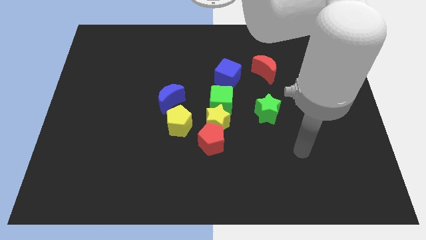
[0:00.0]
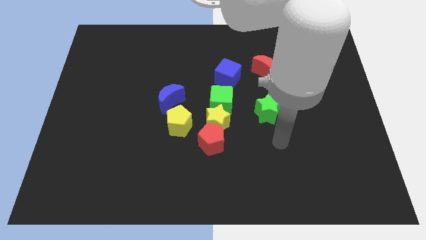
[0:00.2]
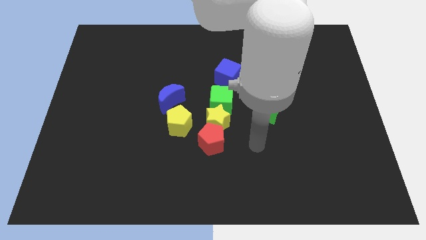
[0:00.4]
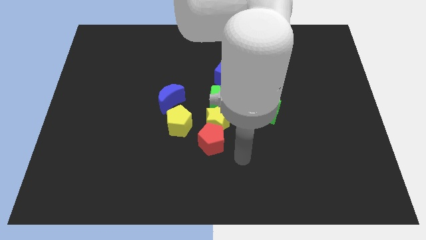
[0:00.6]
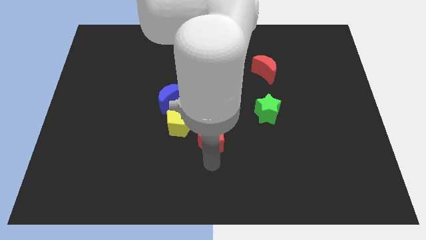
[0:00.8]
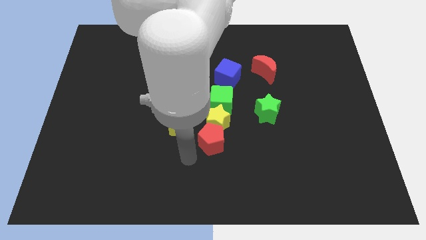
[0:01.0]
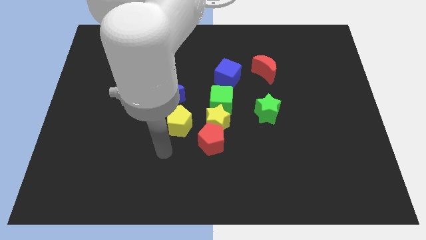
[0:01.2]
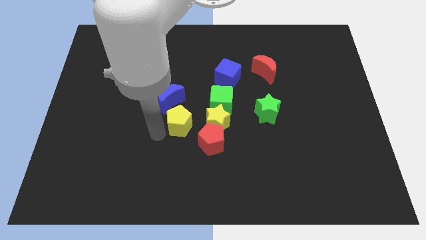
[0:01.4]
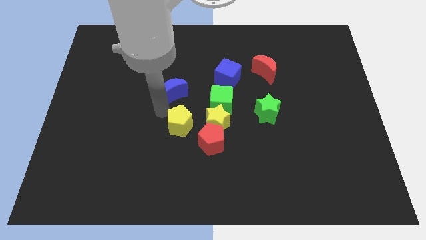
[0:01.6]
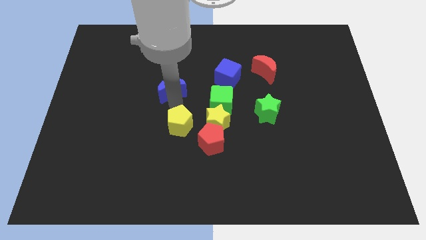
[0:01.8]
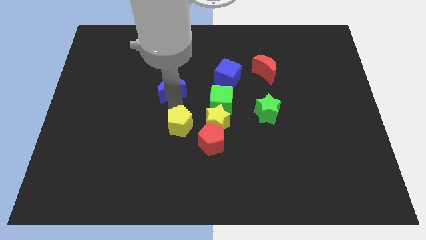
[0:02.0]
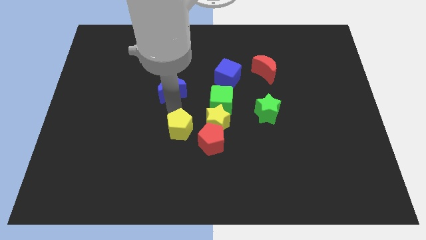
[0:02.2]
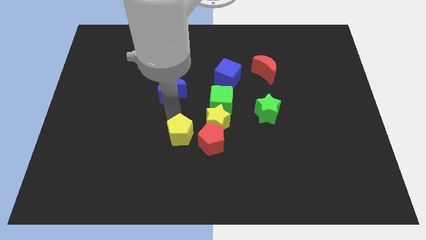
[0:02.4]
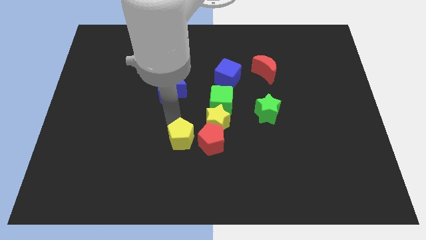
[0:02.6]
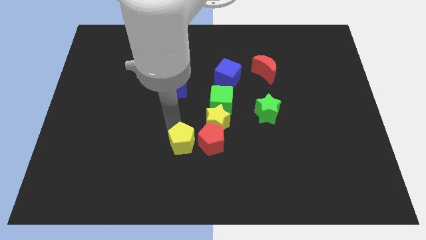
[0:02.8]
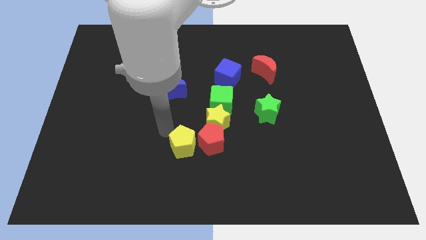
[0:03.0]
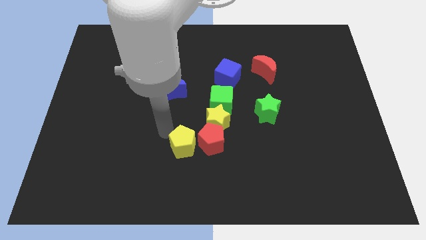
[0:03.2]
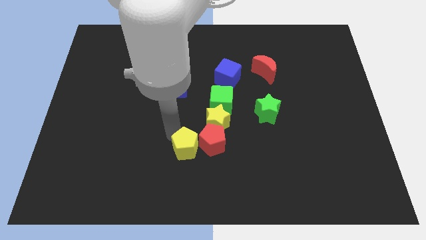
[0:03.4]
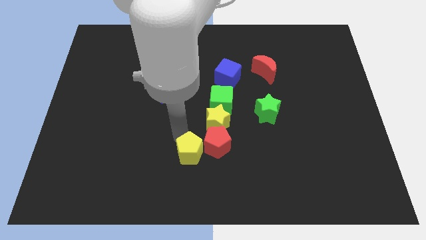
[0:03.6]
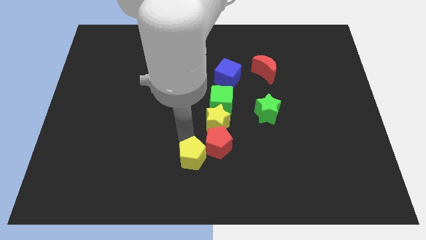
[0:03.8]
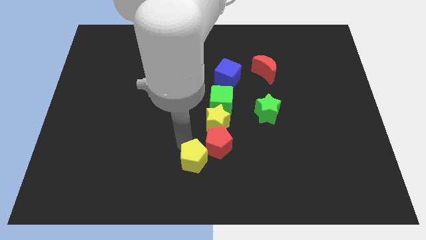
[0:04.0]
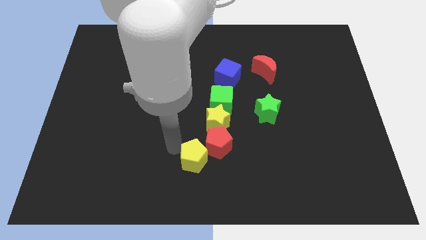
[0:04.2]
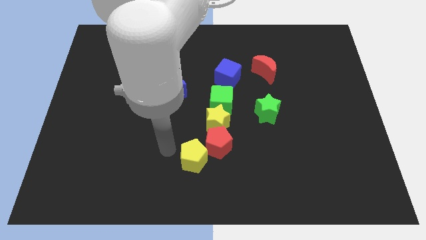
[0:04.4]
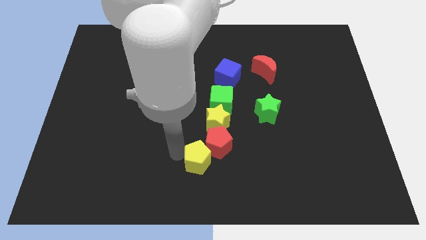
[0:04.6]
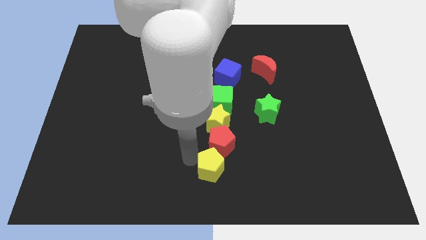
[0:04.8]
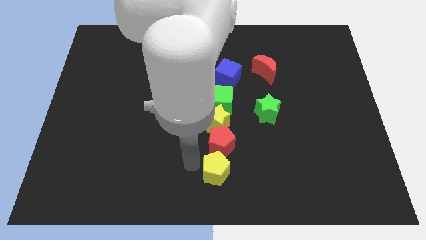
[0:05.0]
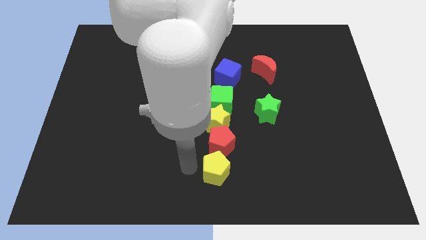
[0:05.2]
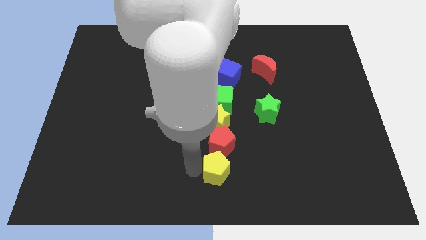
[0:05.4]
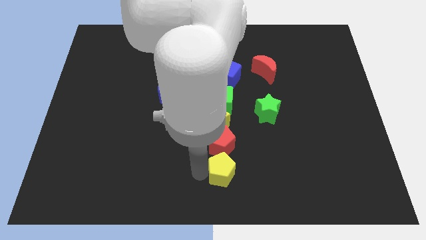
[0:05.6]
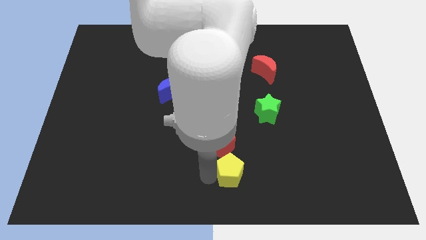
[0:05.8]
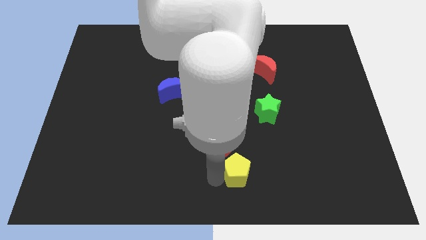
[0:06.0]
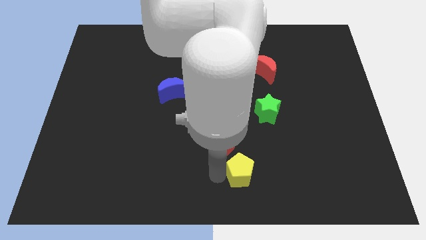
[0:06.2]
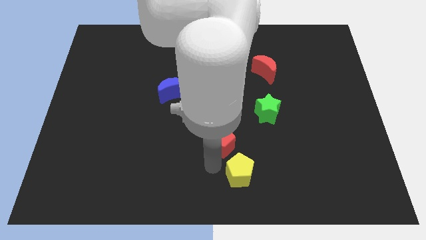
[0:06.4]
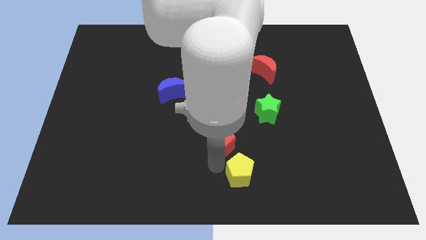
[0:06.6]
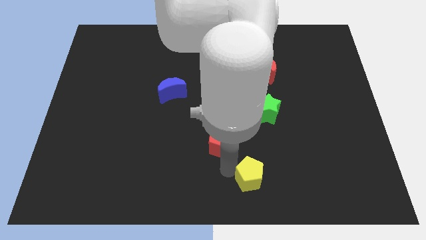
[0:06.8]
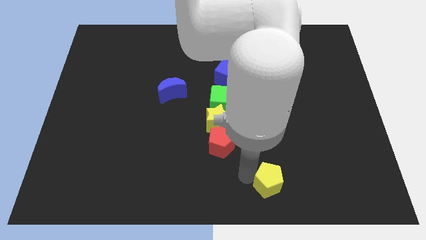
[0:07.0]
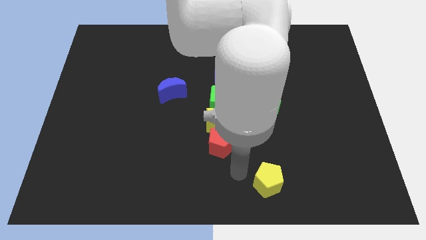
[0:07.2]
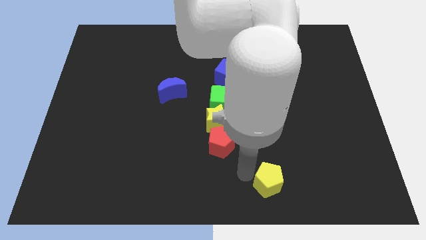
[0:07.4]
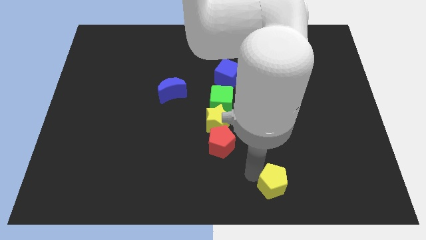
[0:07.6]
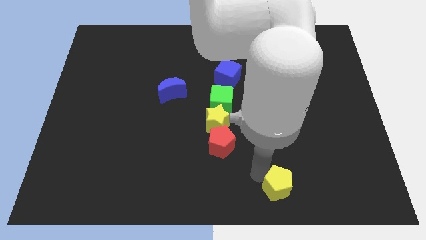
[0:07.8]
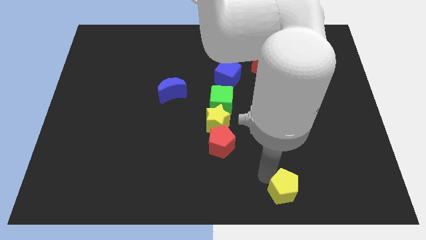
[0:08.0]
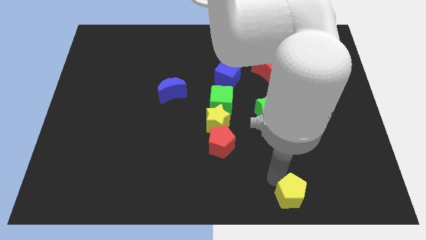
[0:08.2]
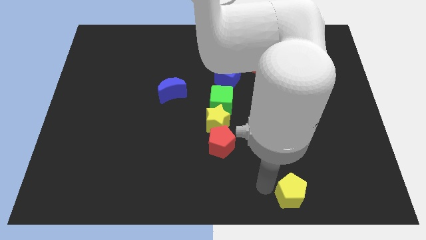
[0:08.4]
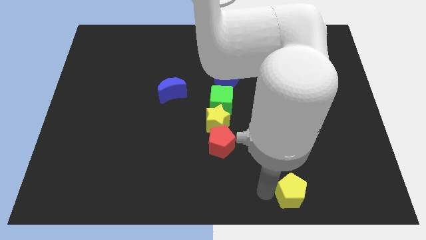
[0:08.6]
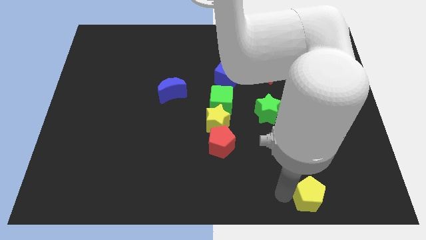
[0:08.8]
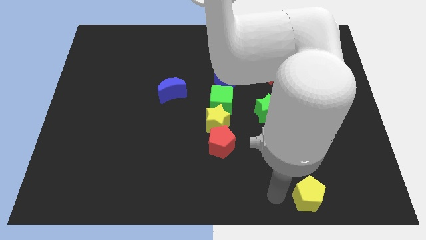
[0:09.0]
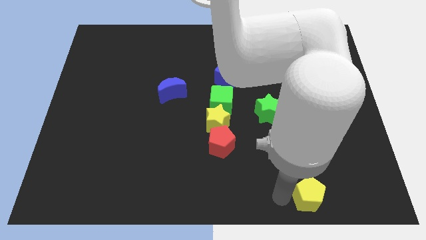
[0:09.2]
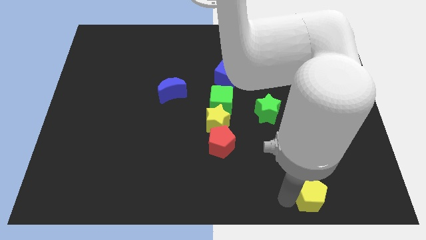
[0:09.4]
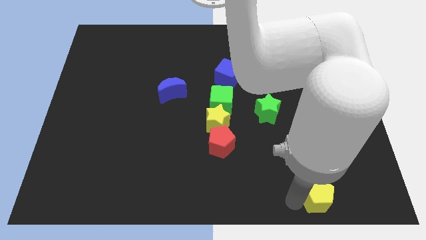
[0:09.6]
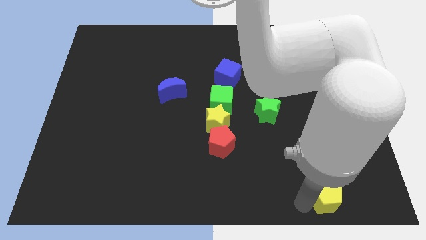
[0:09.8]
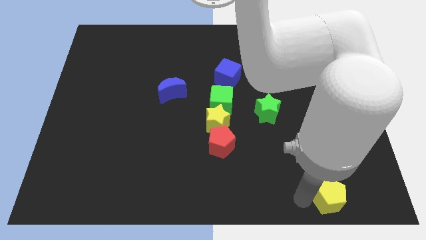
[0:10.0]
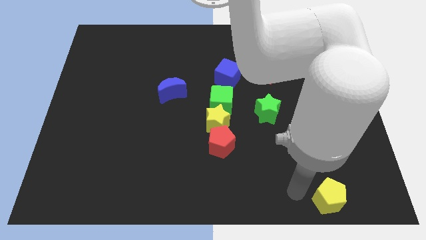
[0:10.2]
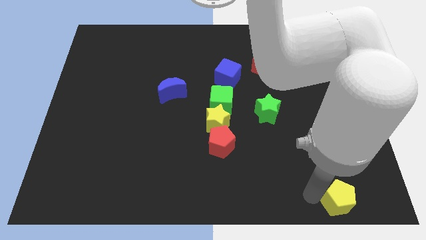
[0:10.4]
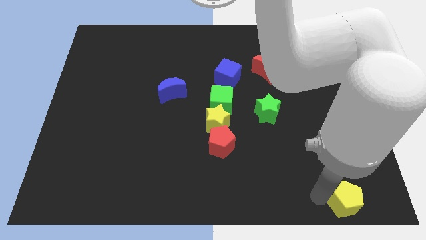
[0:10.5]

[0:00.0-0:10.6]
slide the yellow pentagon to the bottom right of the board

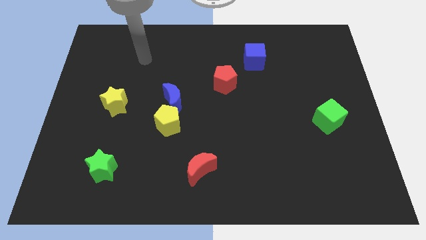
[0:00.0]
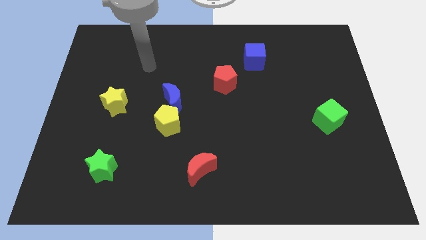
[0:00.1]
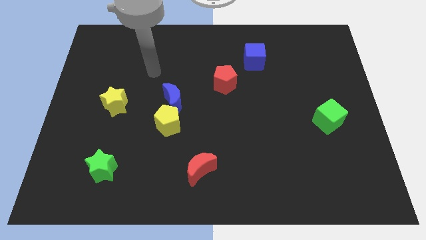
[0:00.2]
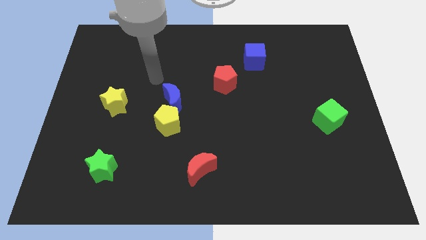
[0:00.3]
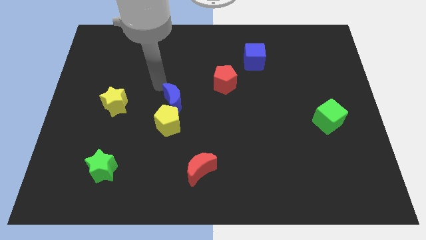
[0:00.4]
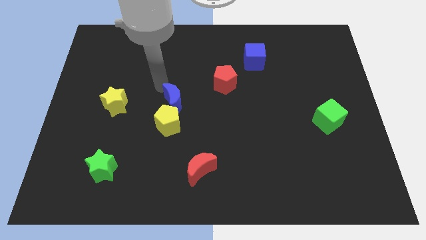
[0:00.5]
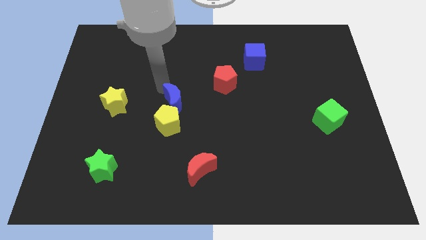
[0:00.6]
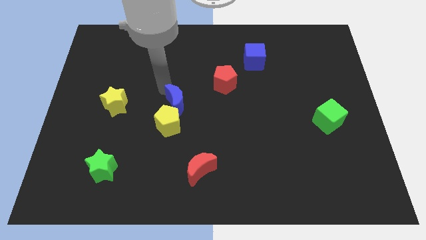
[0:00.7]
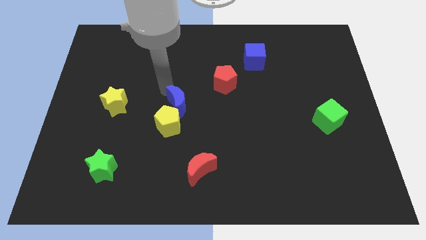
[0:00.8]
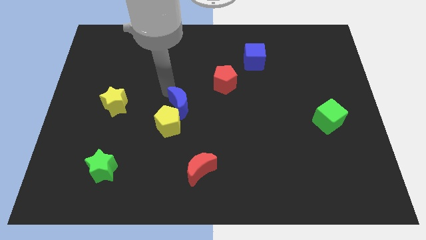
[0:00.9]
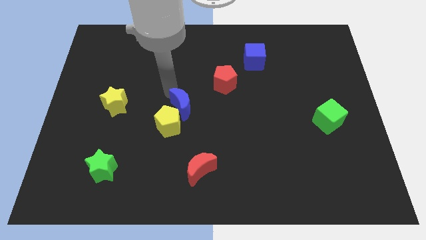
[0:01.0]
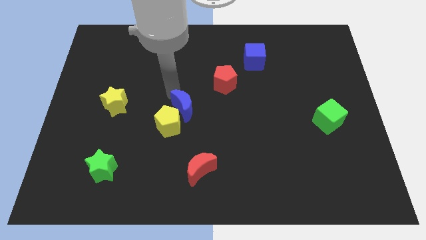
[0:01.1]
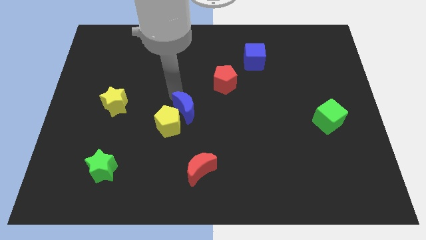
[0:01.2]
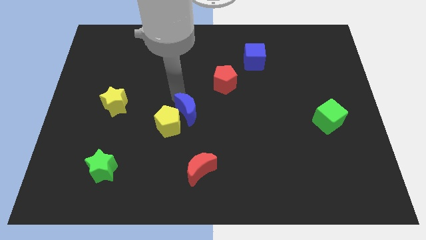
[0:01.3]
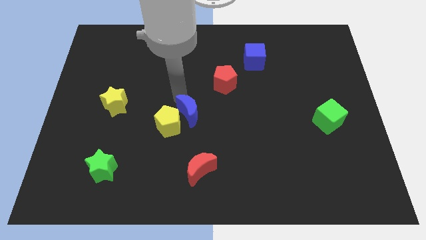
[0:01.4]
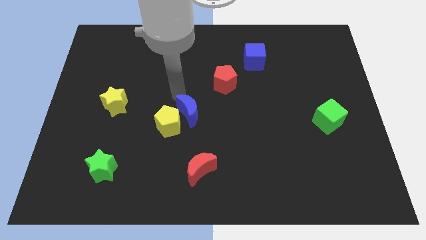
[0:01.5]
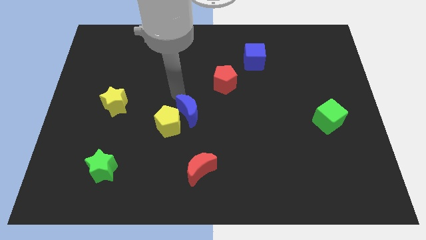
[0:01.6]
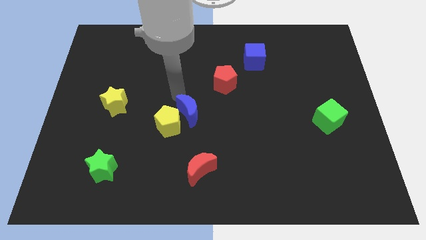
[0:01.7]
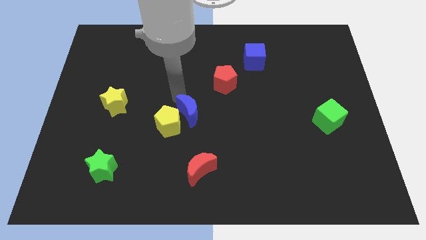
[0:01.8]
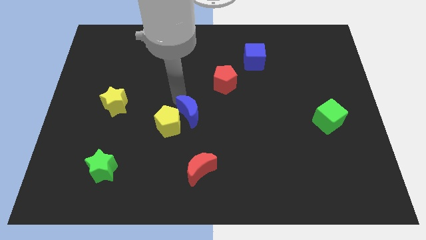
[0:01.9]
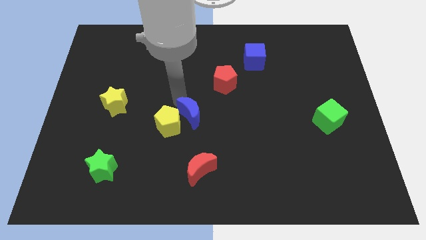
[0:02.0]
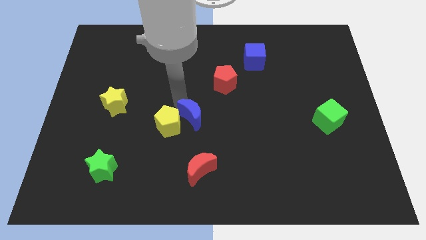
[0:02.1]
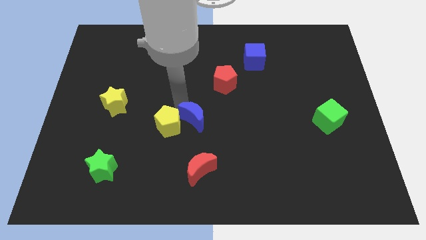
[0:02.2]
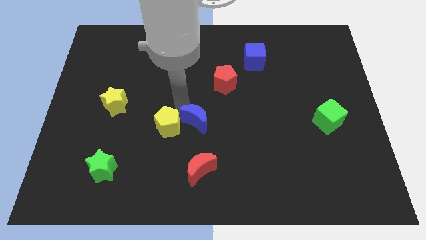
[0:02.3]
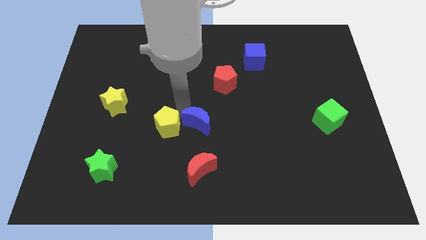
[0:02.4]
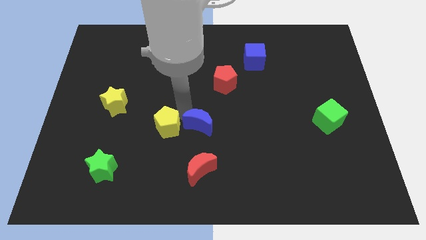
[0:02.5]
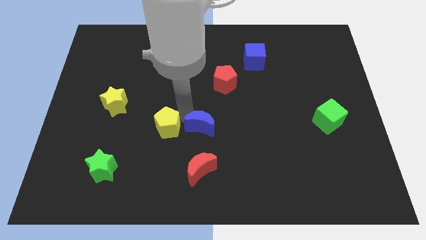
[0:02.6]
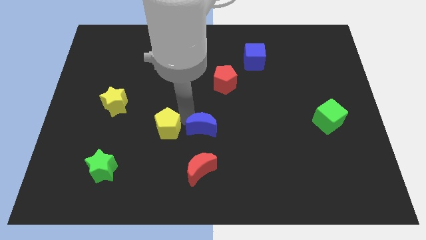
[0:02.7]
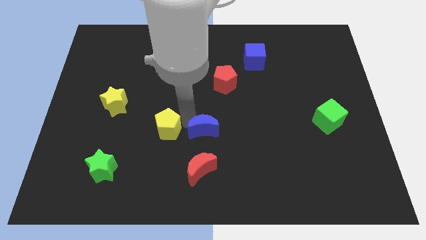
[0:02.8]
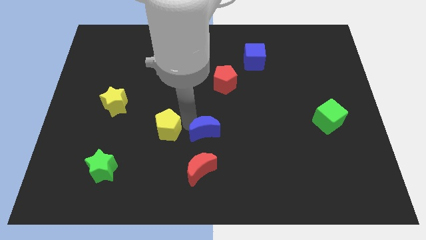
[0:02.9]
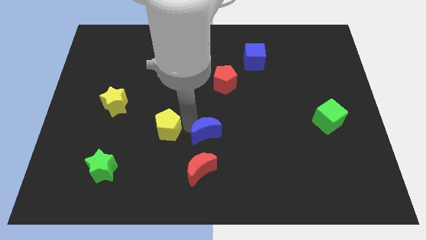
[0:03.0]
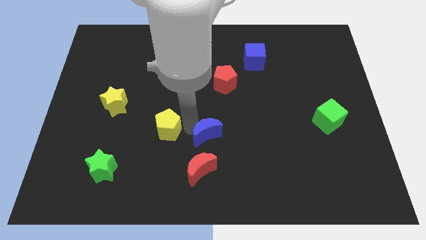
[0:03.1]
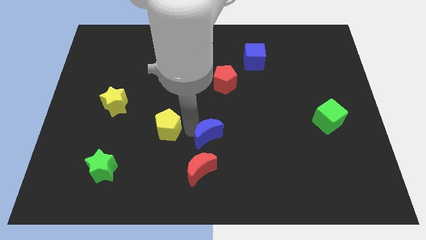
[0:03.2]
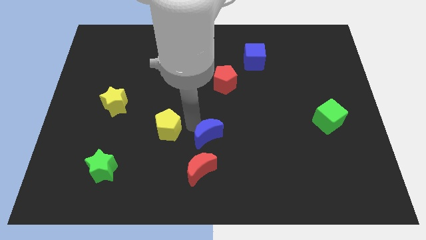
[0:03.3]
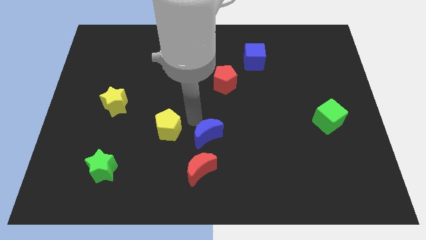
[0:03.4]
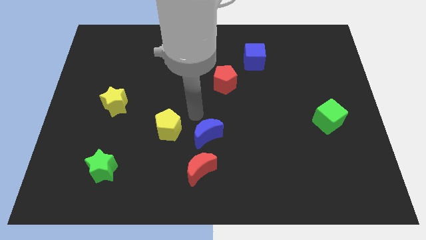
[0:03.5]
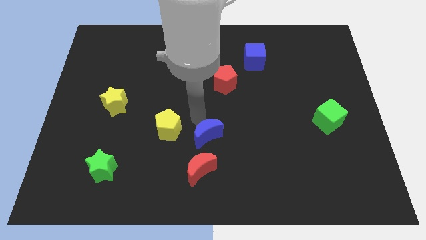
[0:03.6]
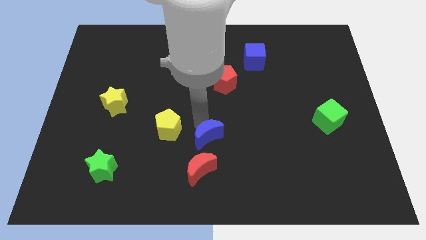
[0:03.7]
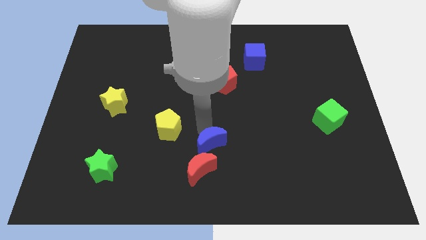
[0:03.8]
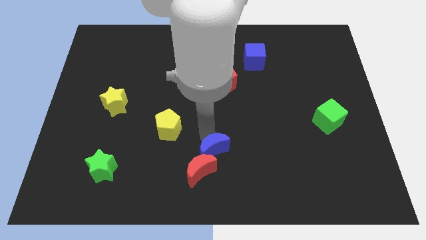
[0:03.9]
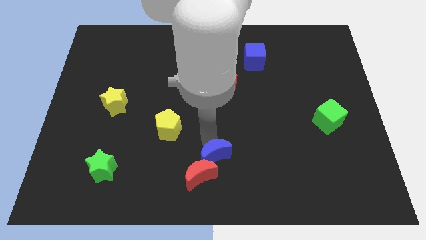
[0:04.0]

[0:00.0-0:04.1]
slide the blue moon to the bottom
